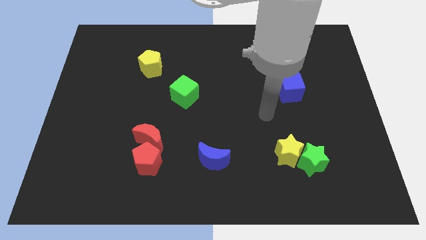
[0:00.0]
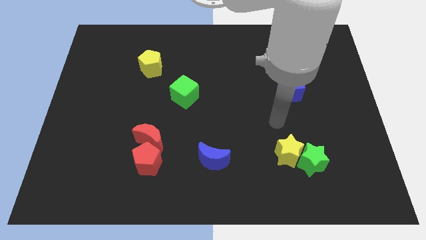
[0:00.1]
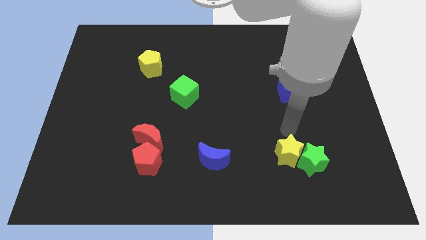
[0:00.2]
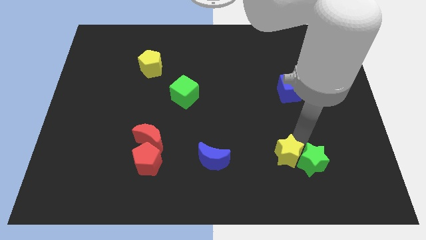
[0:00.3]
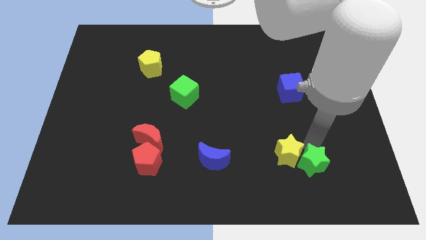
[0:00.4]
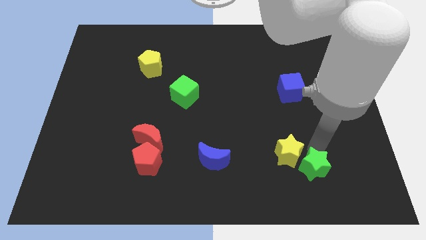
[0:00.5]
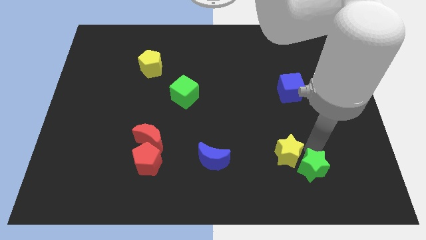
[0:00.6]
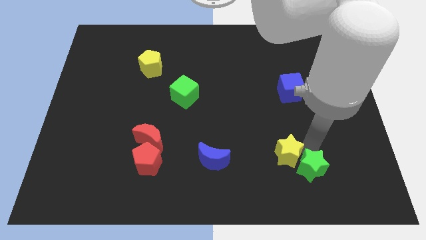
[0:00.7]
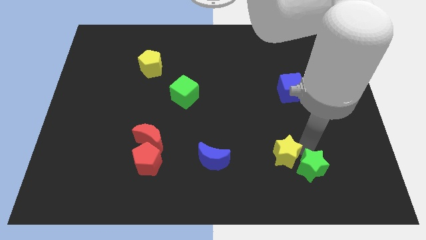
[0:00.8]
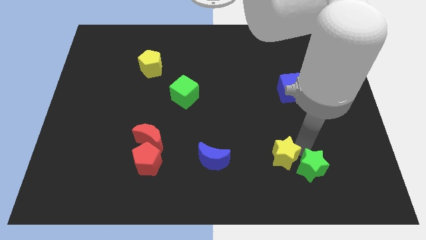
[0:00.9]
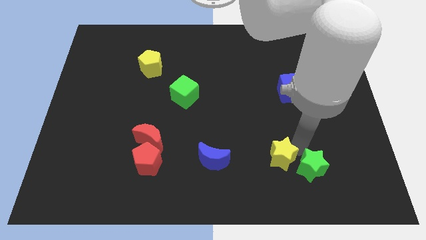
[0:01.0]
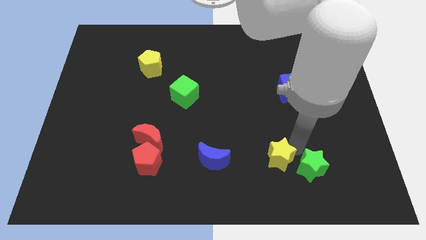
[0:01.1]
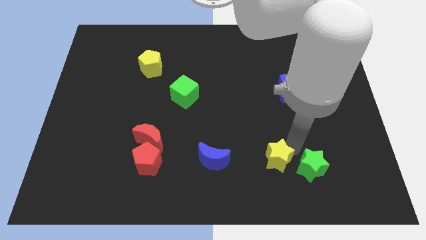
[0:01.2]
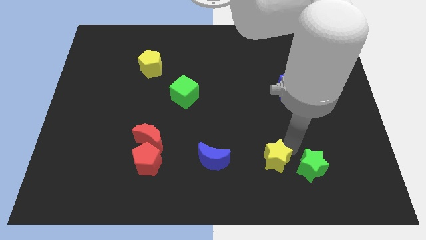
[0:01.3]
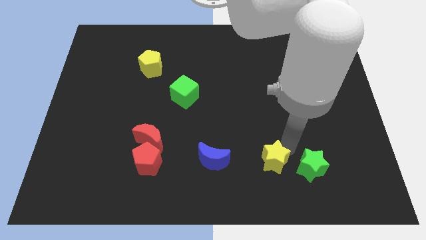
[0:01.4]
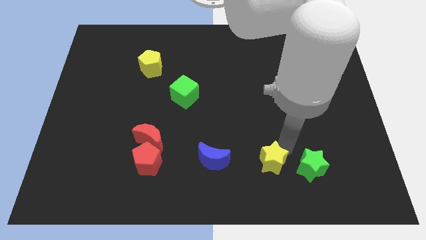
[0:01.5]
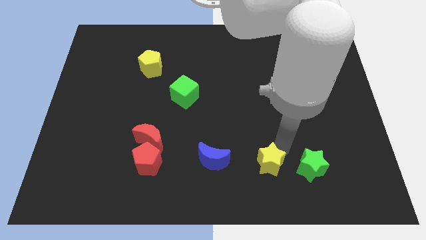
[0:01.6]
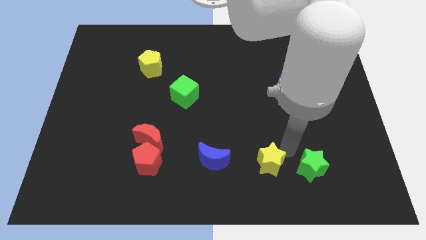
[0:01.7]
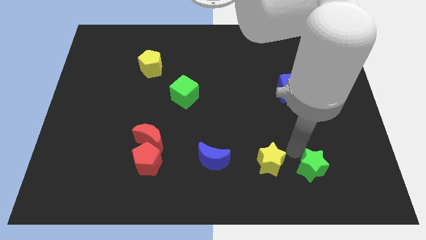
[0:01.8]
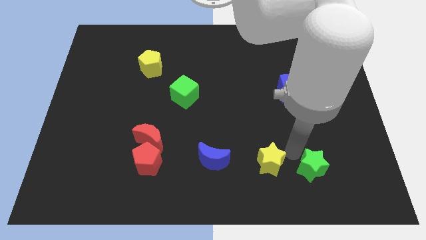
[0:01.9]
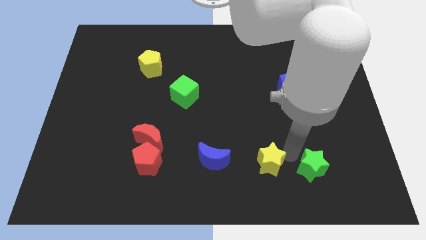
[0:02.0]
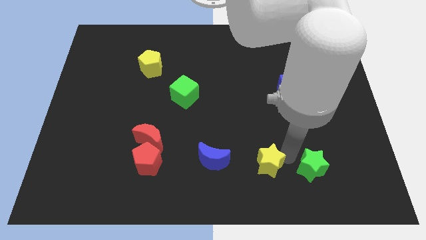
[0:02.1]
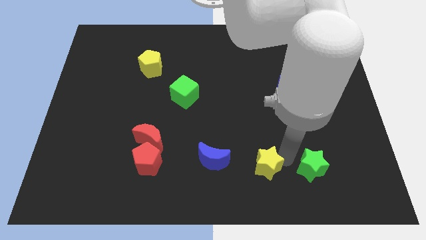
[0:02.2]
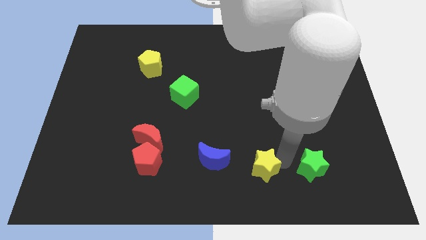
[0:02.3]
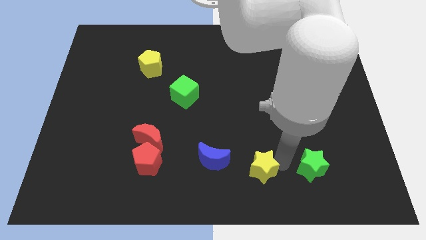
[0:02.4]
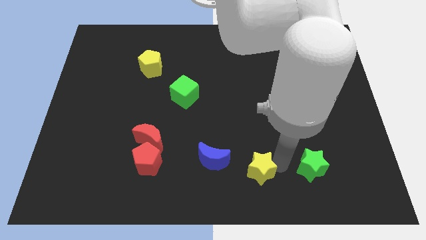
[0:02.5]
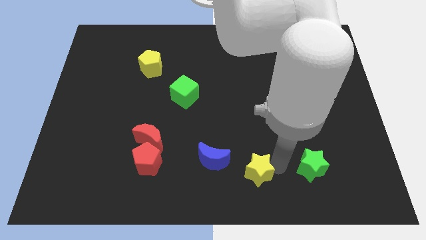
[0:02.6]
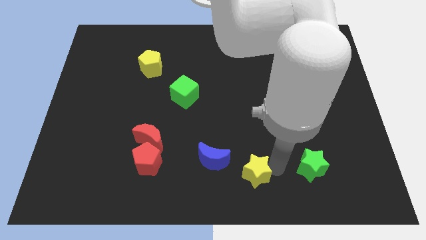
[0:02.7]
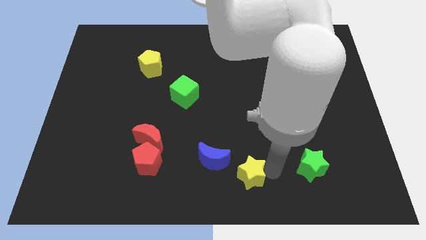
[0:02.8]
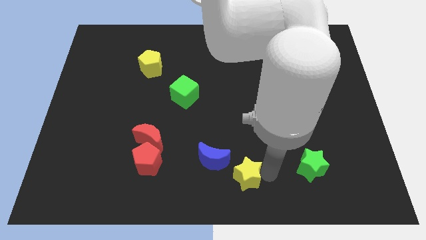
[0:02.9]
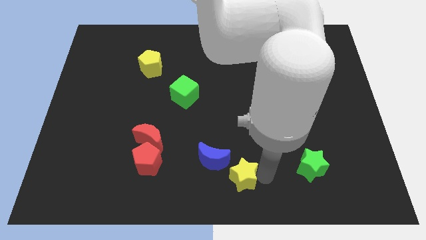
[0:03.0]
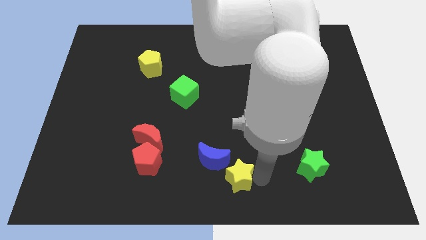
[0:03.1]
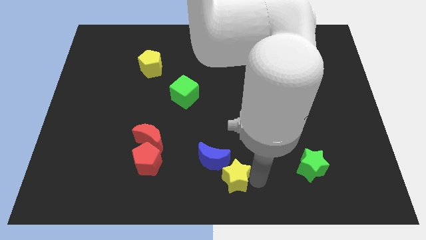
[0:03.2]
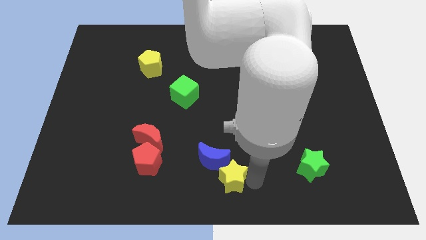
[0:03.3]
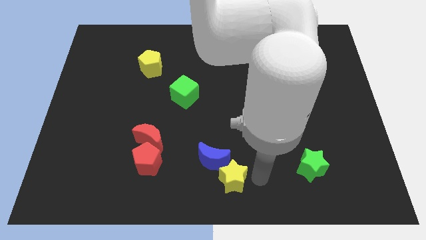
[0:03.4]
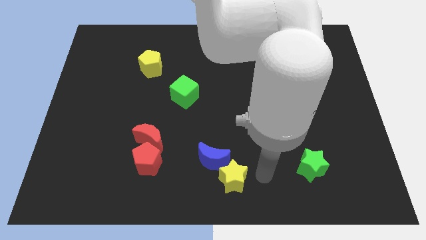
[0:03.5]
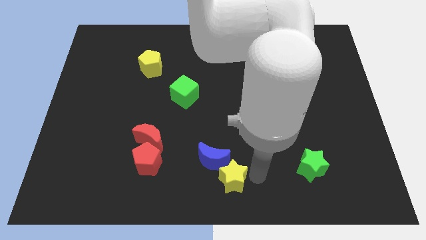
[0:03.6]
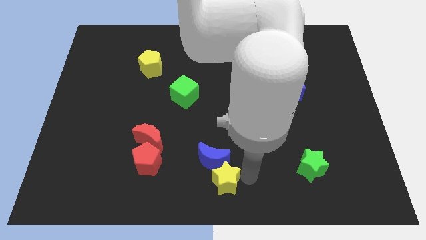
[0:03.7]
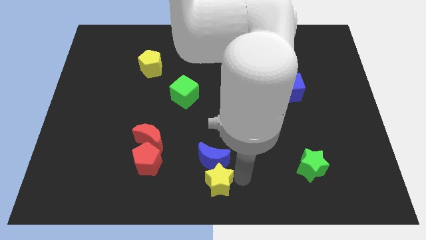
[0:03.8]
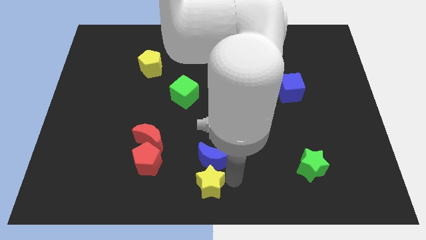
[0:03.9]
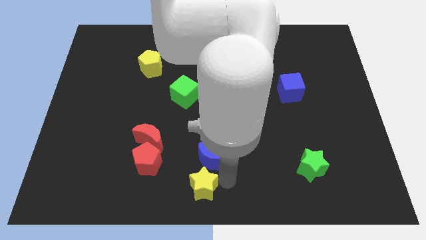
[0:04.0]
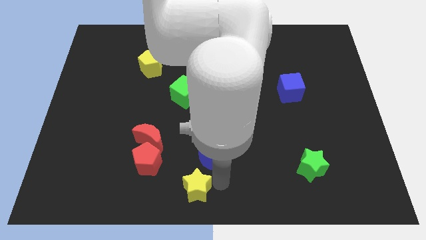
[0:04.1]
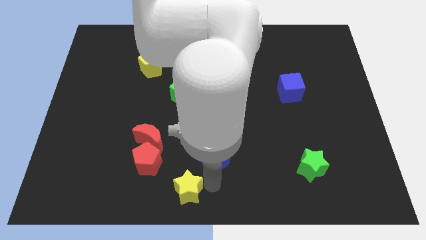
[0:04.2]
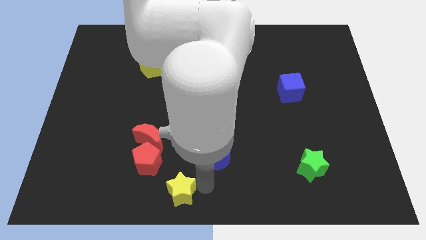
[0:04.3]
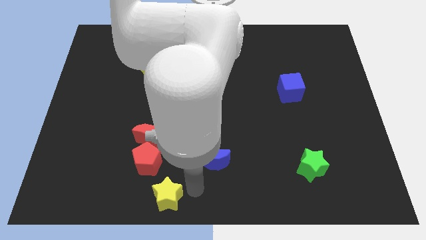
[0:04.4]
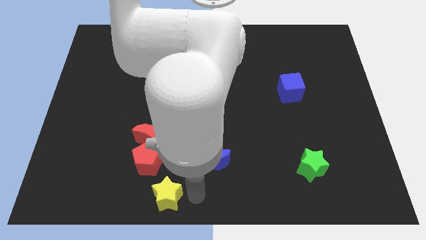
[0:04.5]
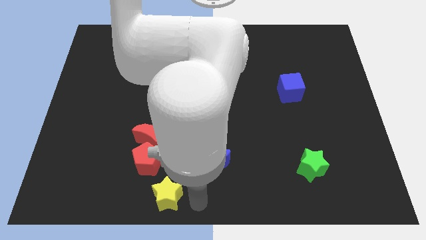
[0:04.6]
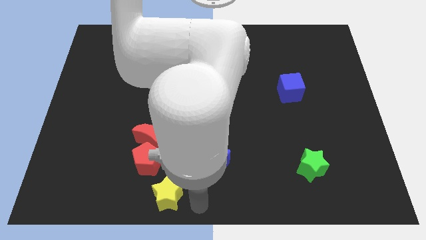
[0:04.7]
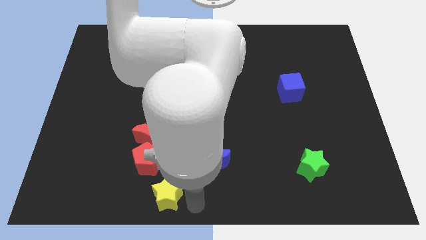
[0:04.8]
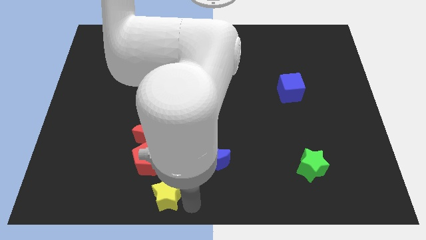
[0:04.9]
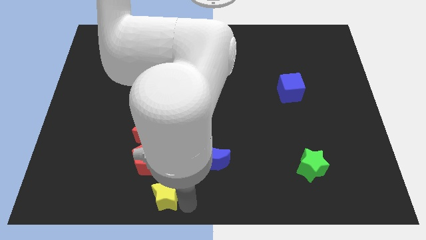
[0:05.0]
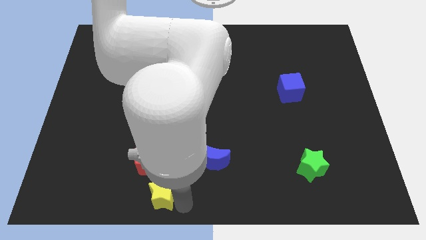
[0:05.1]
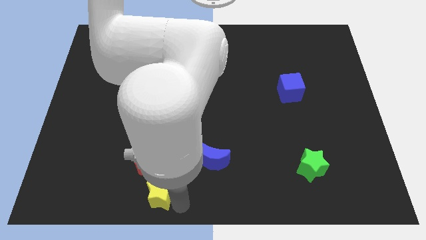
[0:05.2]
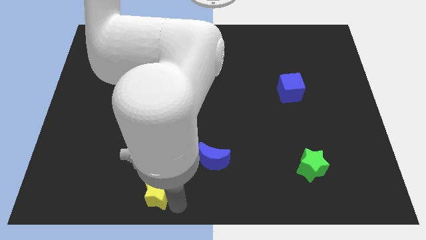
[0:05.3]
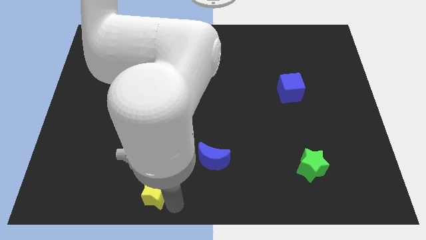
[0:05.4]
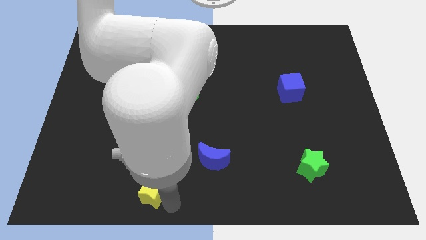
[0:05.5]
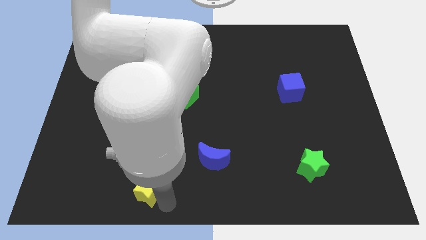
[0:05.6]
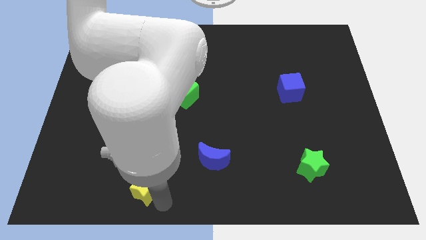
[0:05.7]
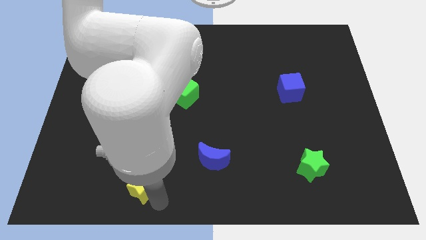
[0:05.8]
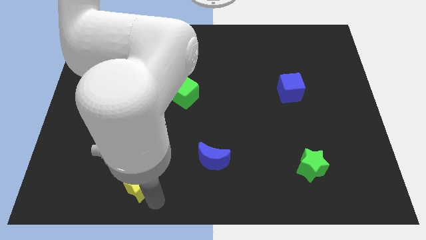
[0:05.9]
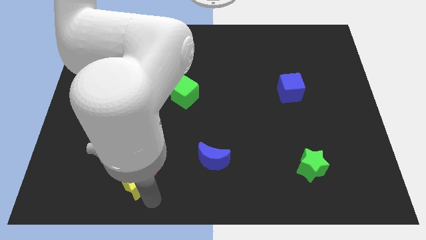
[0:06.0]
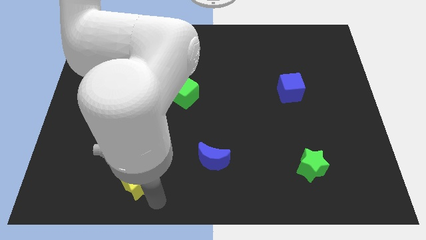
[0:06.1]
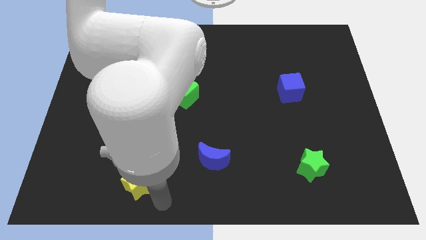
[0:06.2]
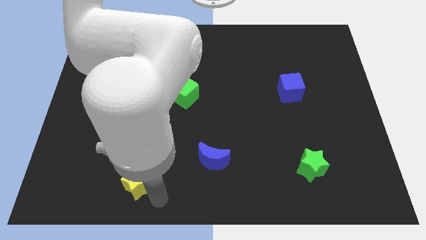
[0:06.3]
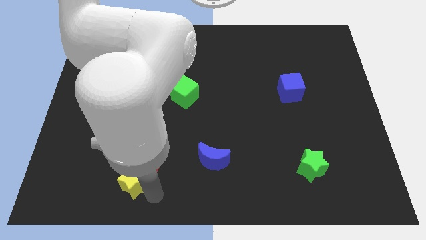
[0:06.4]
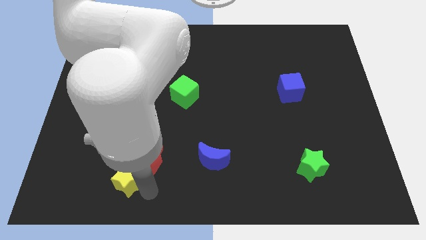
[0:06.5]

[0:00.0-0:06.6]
move the yellow star to the left side of the red pentagon

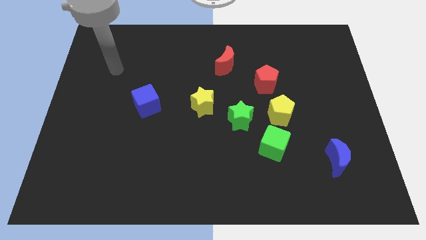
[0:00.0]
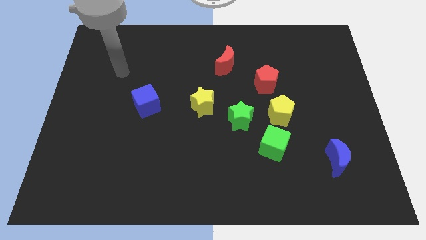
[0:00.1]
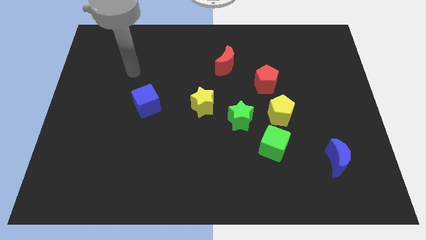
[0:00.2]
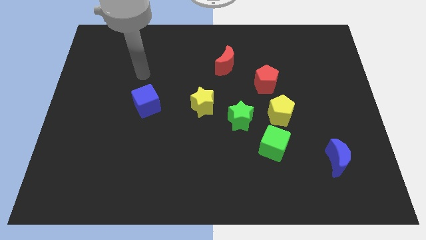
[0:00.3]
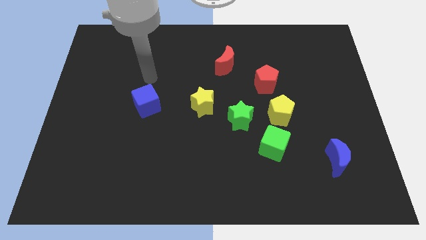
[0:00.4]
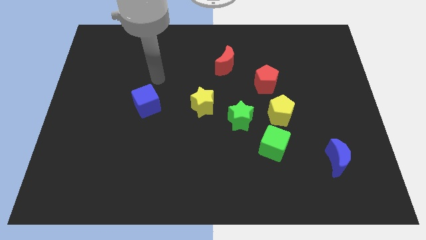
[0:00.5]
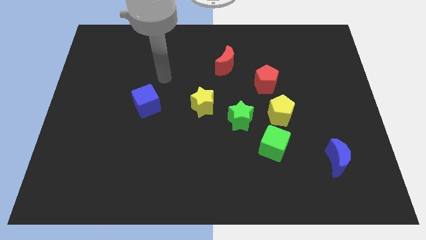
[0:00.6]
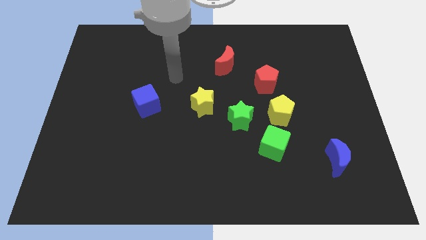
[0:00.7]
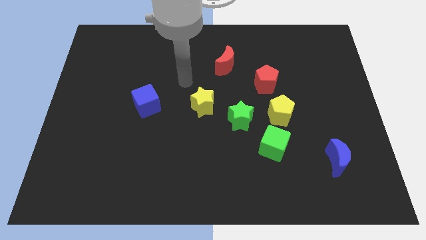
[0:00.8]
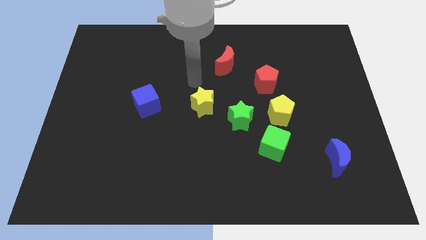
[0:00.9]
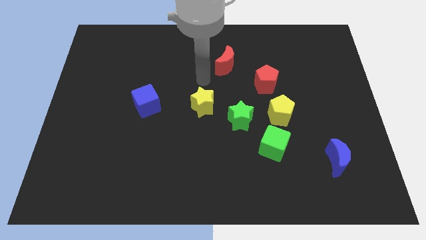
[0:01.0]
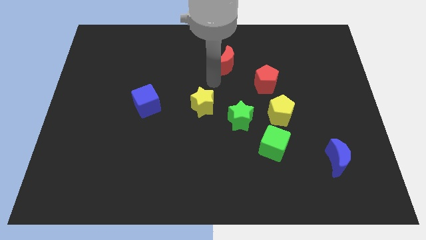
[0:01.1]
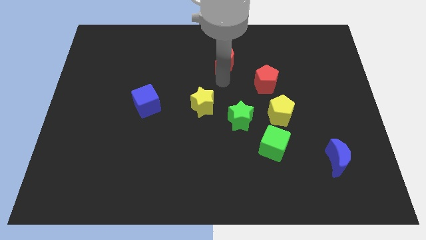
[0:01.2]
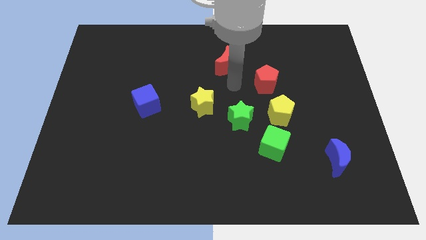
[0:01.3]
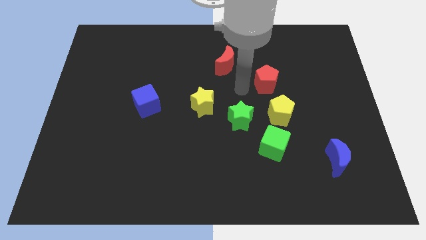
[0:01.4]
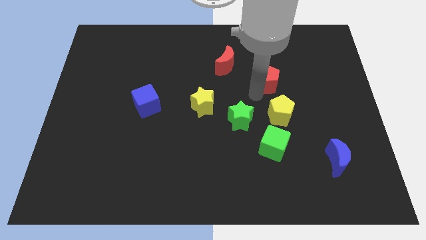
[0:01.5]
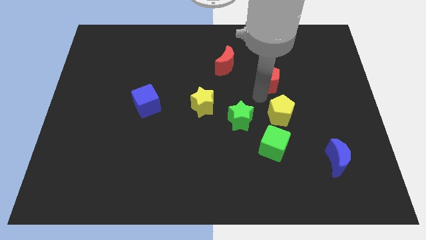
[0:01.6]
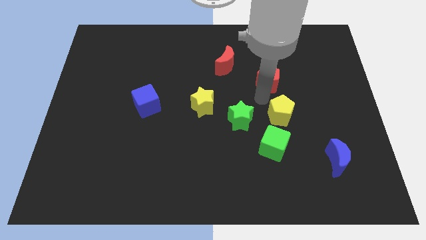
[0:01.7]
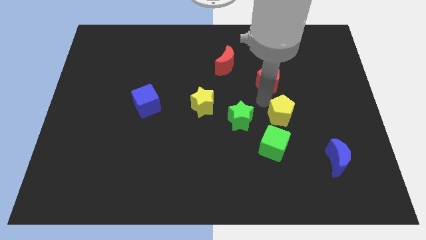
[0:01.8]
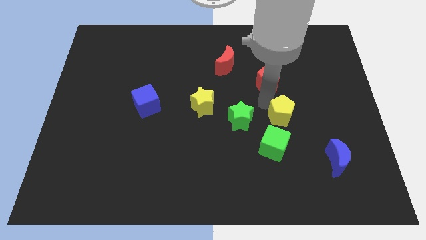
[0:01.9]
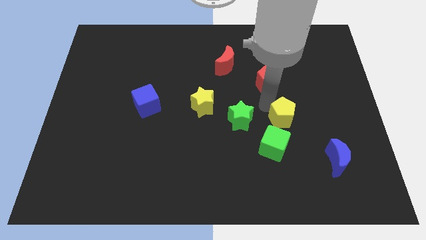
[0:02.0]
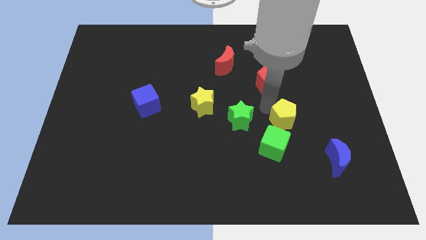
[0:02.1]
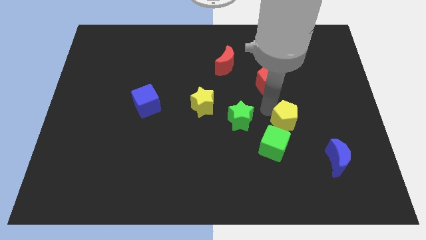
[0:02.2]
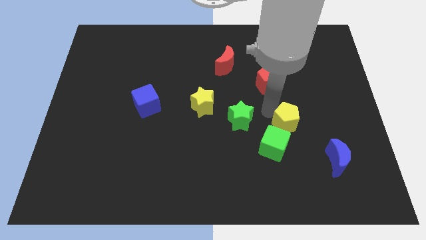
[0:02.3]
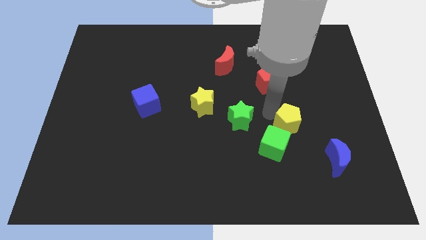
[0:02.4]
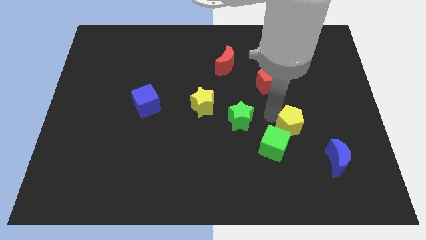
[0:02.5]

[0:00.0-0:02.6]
slide the yellow pentagon diagonally up and to the left of the blue moon
